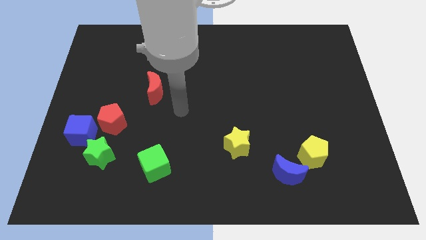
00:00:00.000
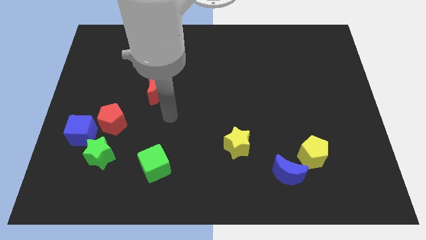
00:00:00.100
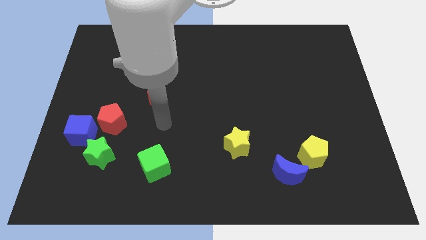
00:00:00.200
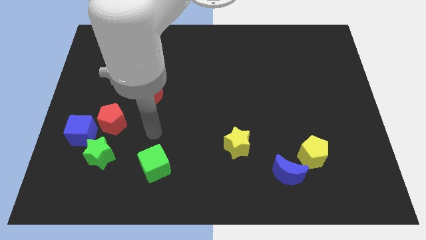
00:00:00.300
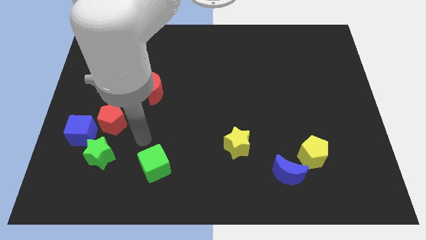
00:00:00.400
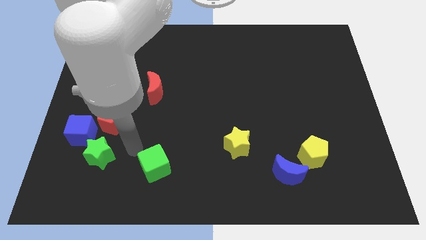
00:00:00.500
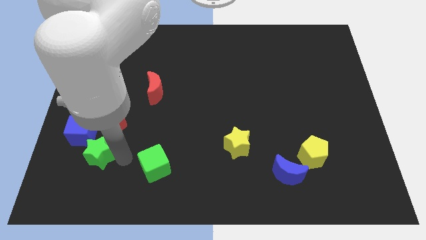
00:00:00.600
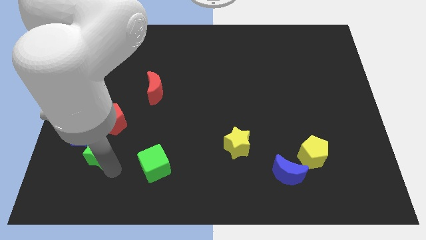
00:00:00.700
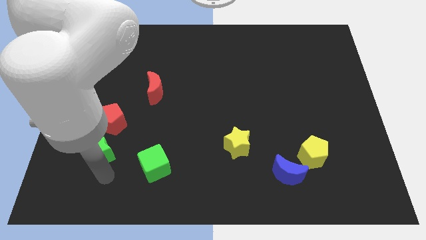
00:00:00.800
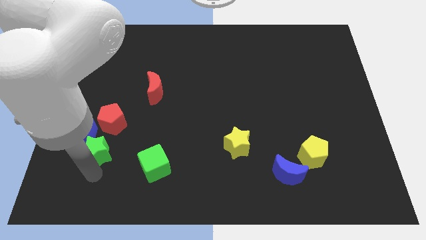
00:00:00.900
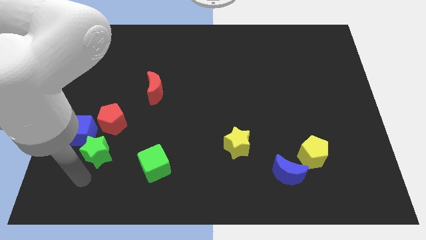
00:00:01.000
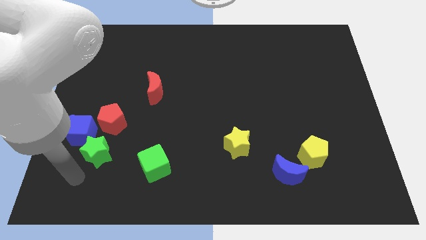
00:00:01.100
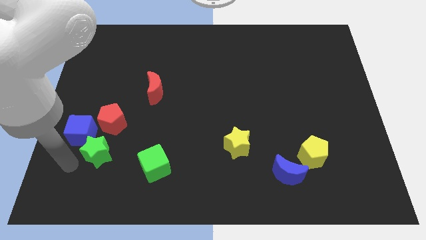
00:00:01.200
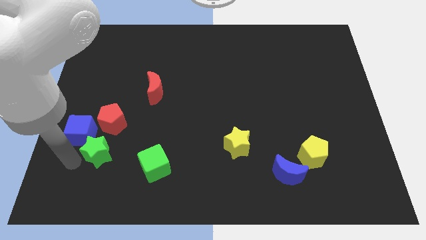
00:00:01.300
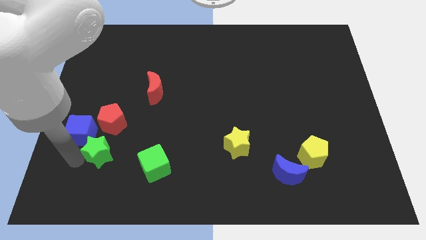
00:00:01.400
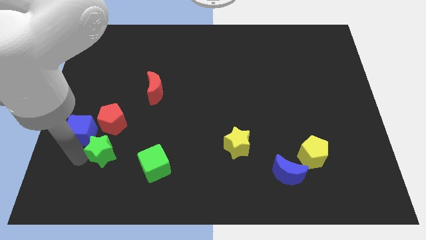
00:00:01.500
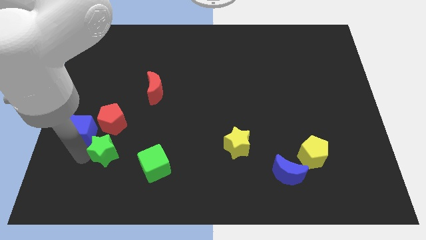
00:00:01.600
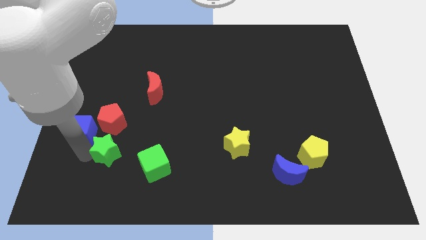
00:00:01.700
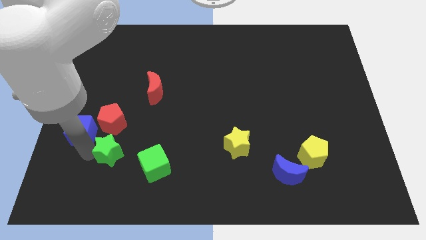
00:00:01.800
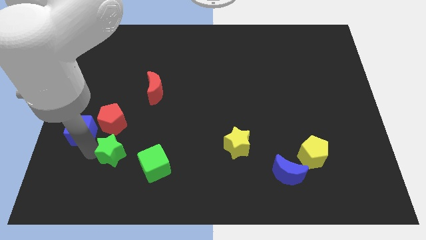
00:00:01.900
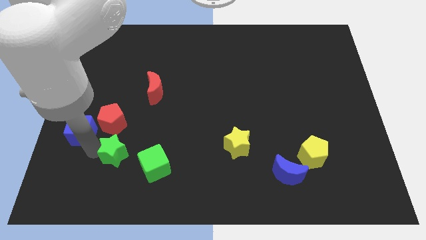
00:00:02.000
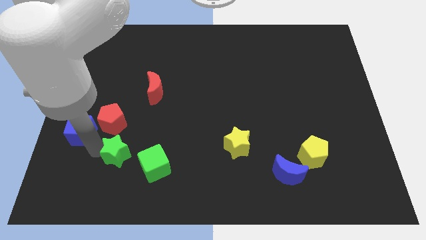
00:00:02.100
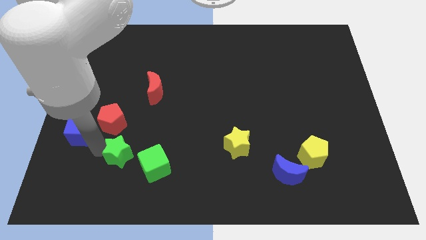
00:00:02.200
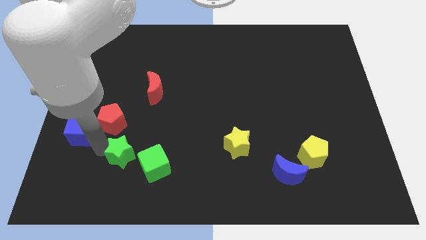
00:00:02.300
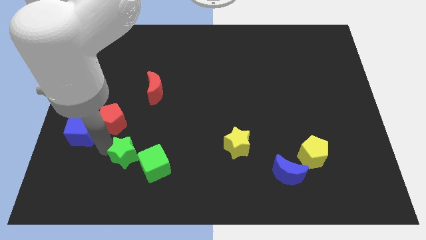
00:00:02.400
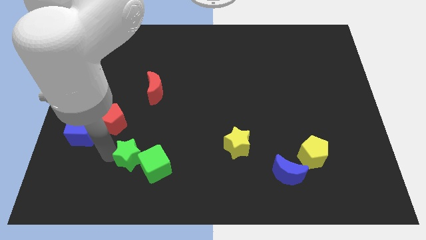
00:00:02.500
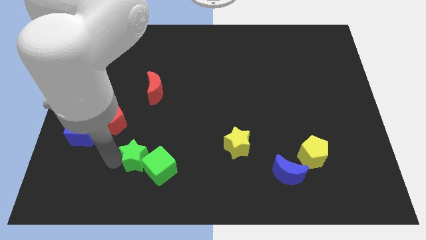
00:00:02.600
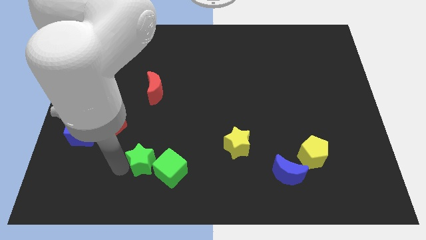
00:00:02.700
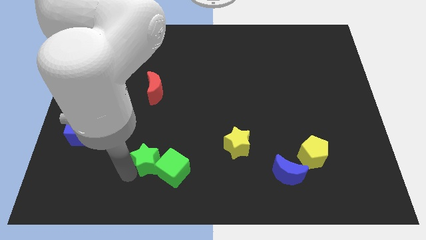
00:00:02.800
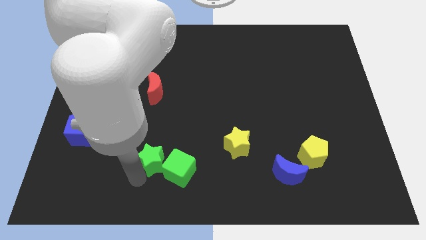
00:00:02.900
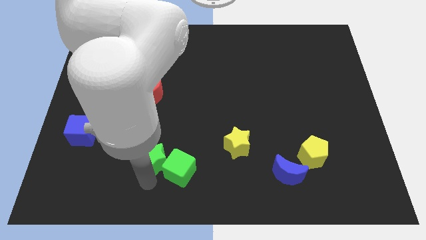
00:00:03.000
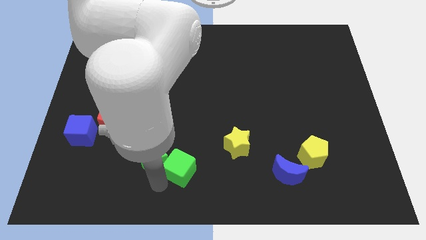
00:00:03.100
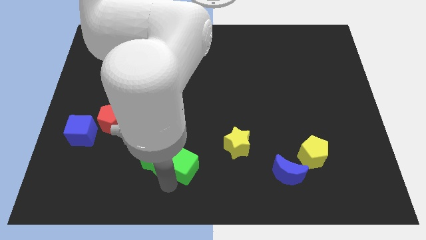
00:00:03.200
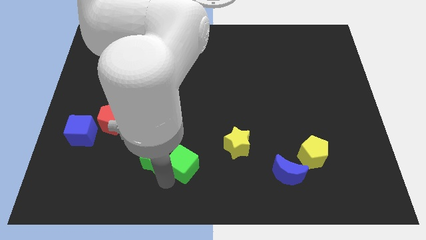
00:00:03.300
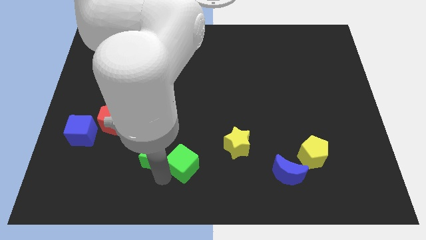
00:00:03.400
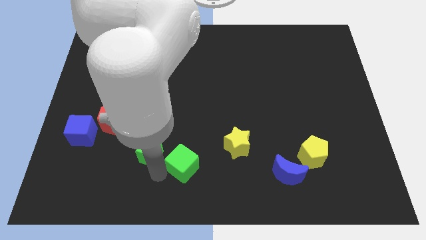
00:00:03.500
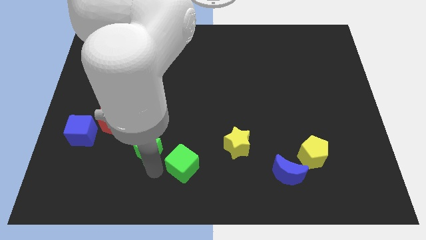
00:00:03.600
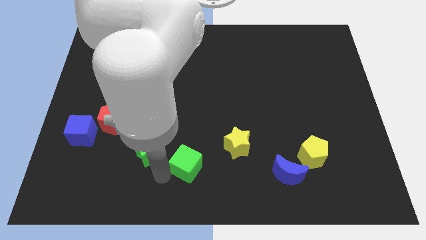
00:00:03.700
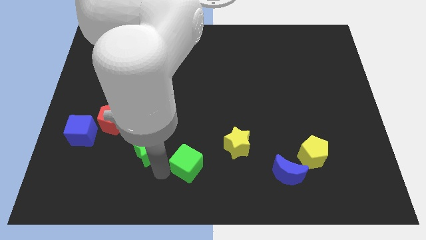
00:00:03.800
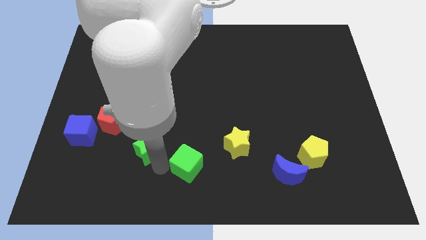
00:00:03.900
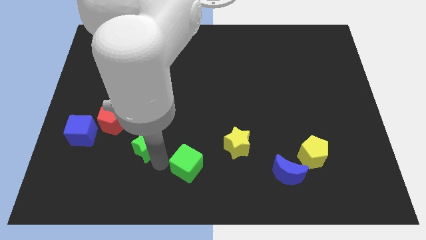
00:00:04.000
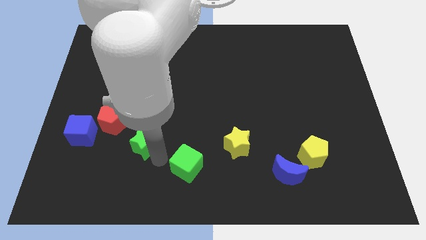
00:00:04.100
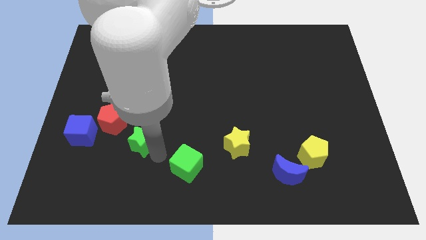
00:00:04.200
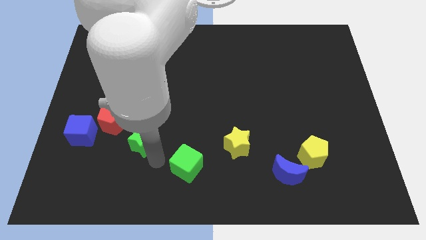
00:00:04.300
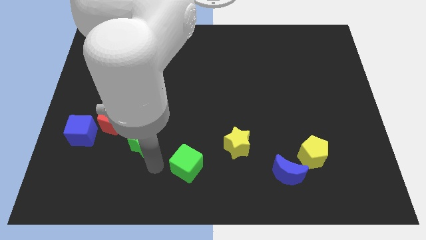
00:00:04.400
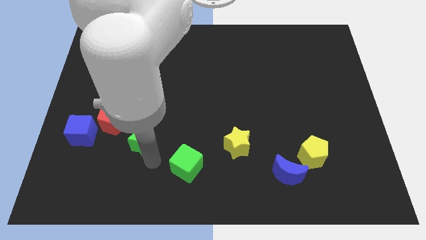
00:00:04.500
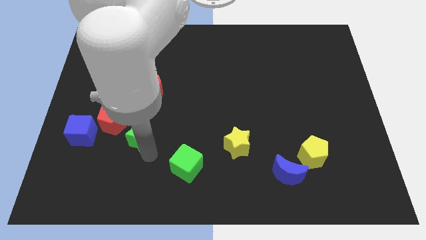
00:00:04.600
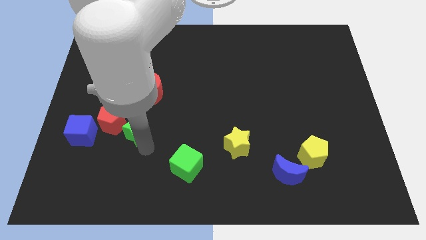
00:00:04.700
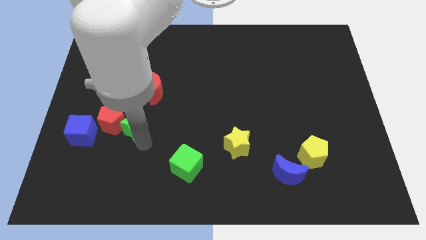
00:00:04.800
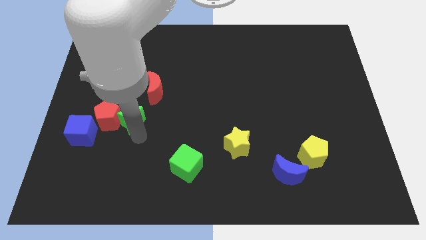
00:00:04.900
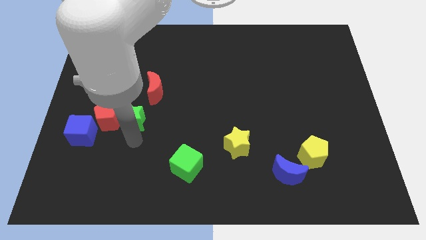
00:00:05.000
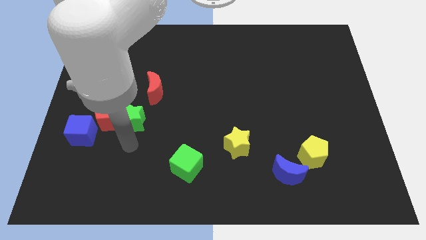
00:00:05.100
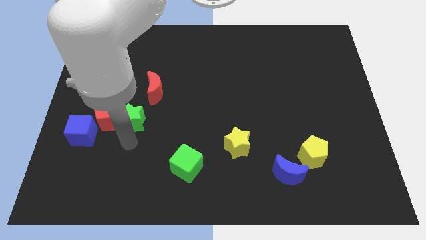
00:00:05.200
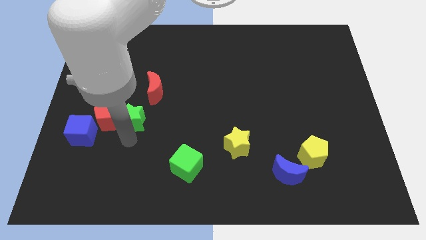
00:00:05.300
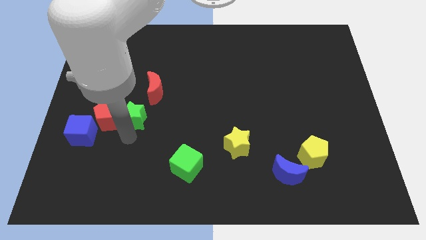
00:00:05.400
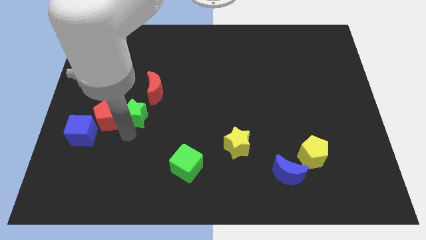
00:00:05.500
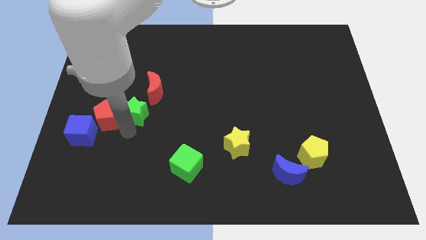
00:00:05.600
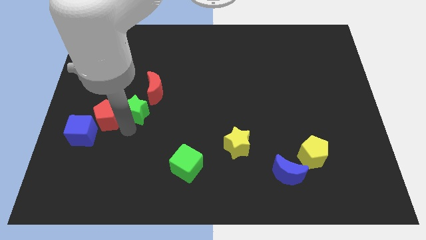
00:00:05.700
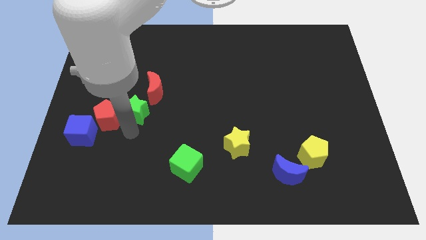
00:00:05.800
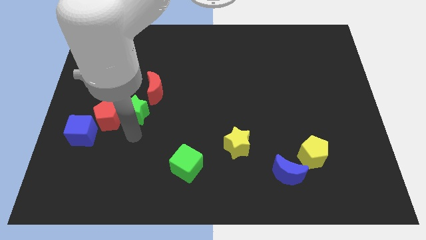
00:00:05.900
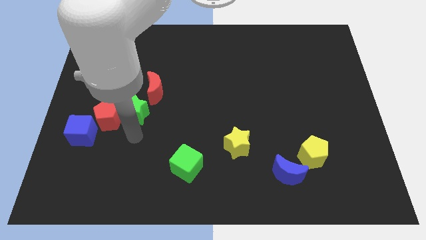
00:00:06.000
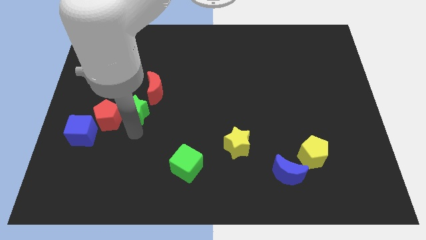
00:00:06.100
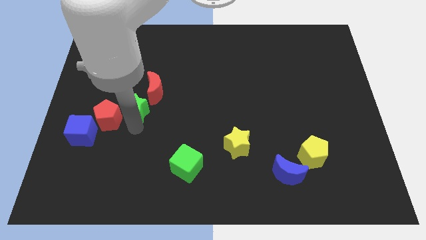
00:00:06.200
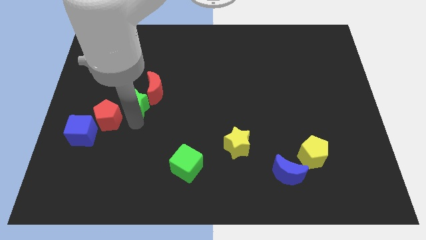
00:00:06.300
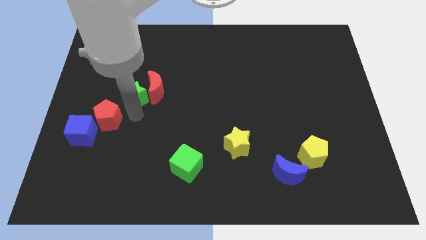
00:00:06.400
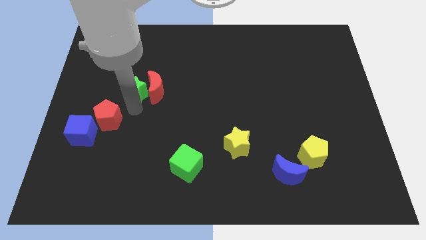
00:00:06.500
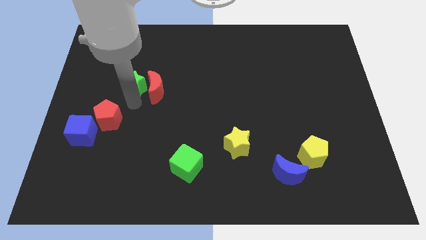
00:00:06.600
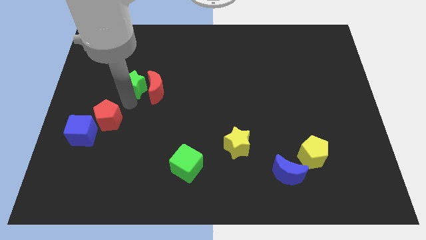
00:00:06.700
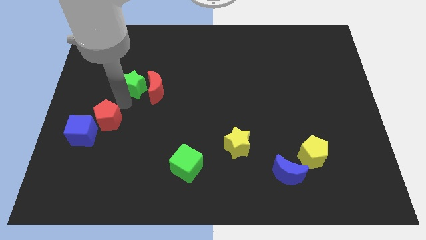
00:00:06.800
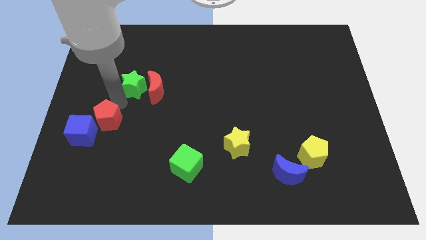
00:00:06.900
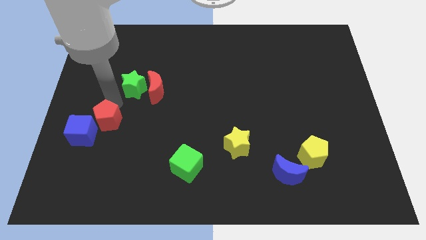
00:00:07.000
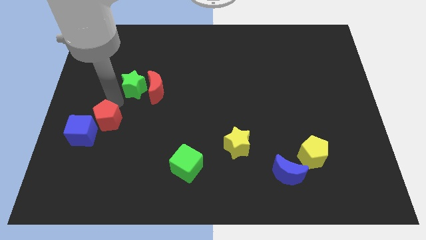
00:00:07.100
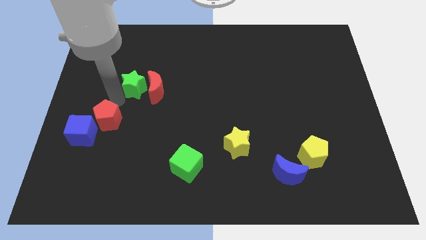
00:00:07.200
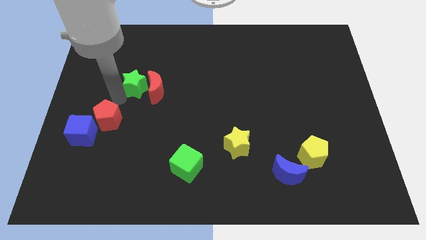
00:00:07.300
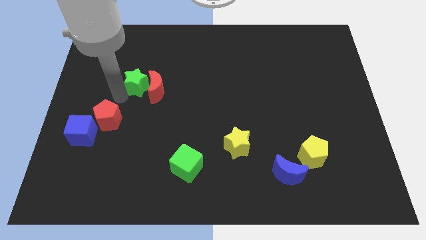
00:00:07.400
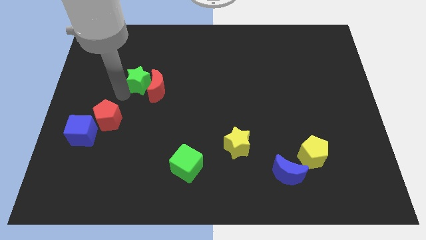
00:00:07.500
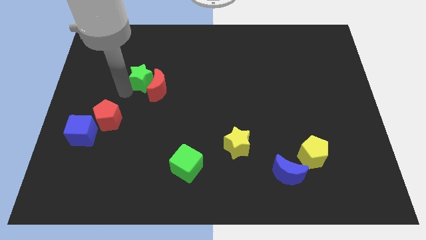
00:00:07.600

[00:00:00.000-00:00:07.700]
put the green star to the top side of the red moon
